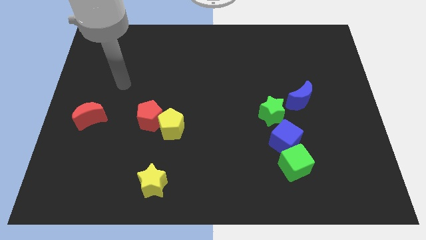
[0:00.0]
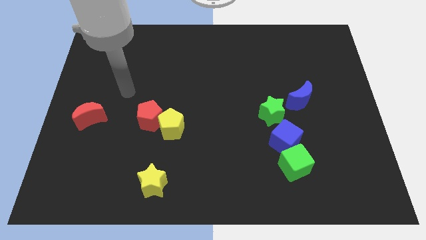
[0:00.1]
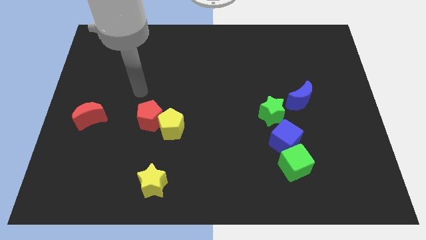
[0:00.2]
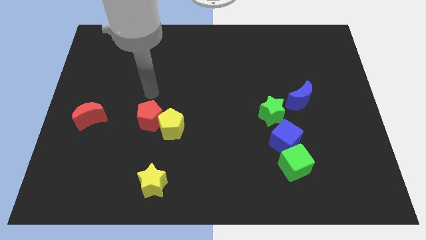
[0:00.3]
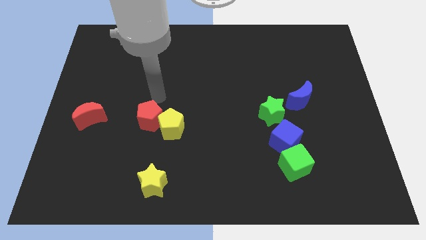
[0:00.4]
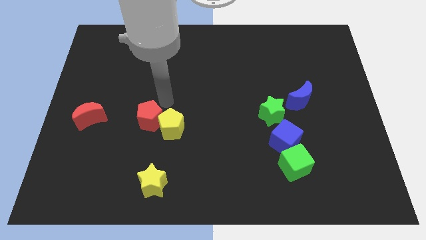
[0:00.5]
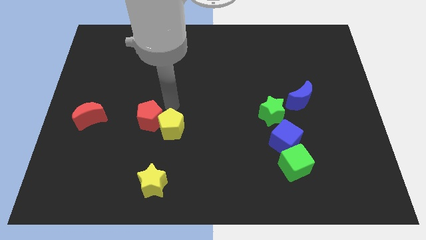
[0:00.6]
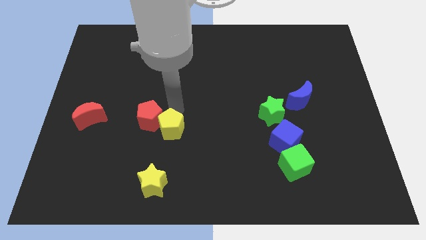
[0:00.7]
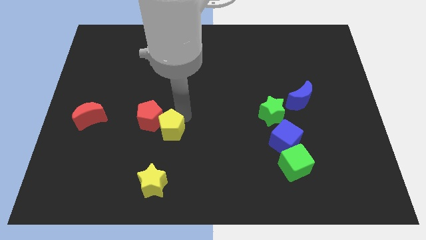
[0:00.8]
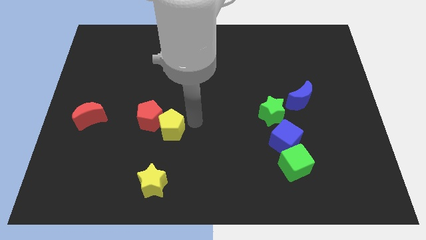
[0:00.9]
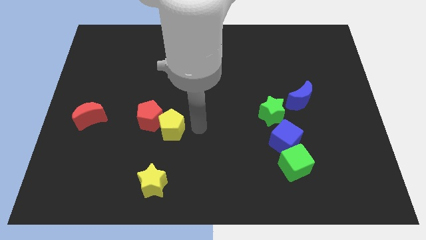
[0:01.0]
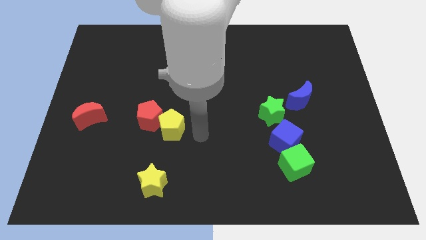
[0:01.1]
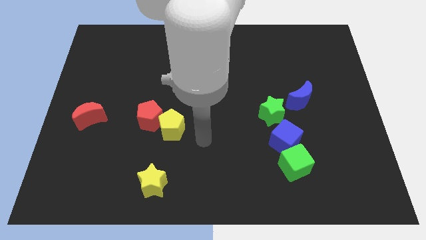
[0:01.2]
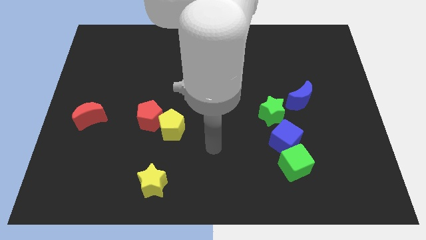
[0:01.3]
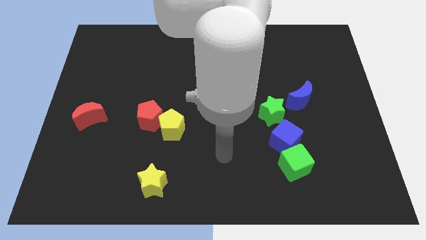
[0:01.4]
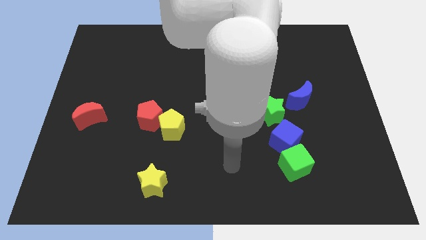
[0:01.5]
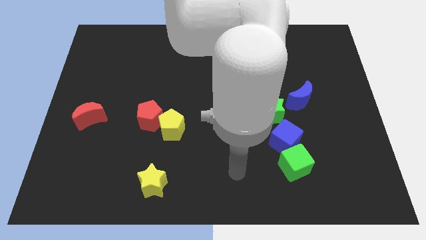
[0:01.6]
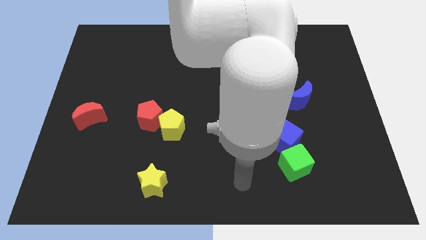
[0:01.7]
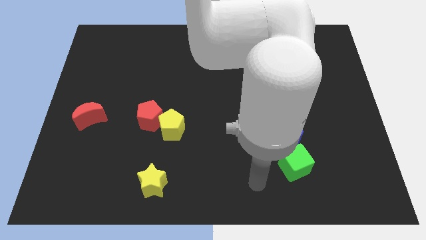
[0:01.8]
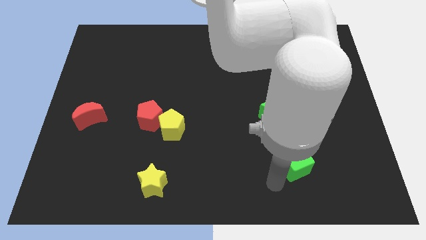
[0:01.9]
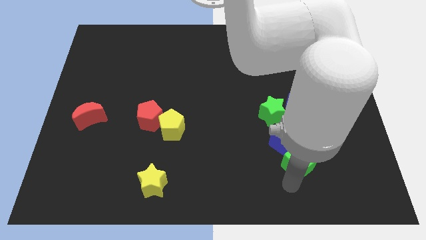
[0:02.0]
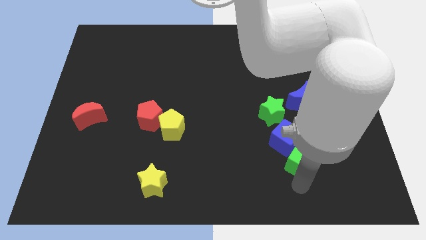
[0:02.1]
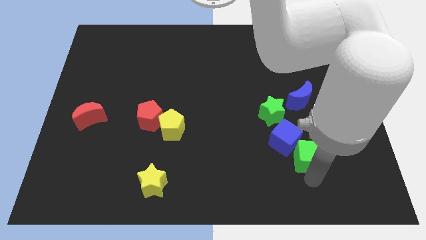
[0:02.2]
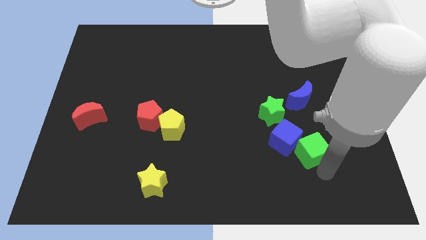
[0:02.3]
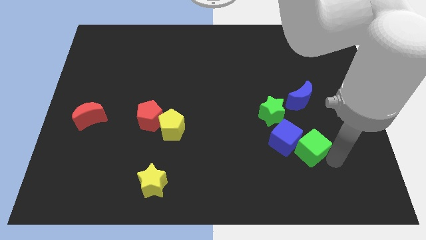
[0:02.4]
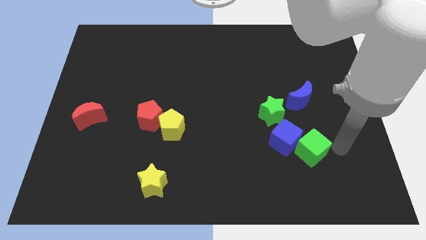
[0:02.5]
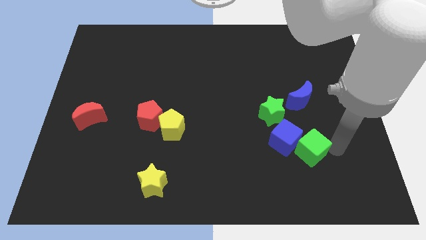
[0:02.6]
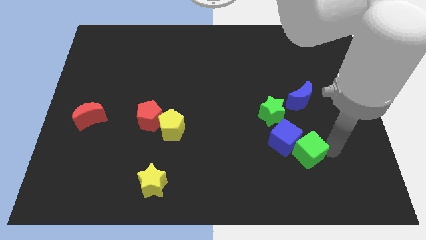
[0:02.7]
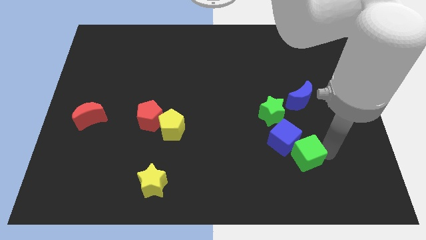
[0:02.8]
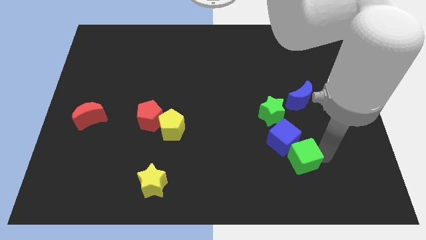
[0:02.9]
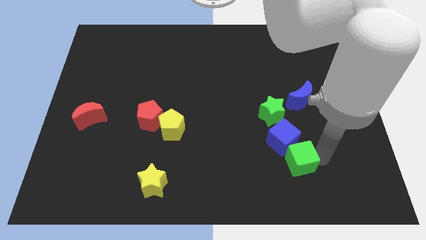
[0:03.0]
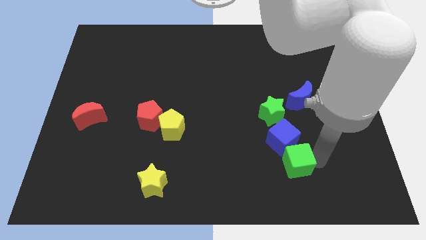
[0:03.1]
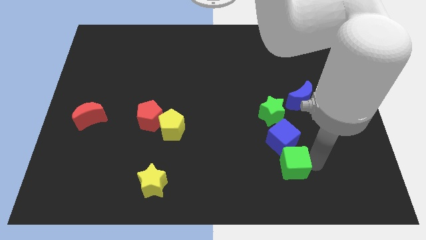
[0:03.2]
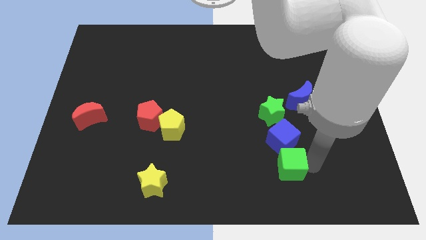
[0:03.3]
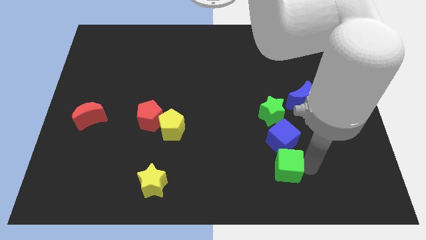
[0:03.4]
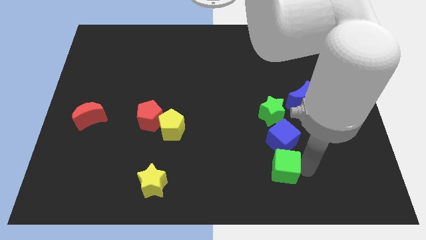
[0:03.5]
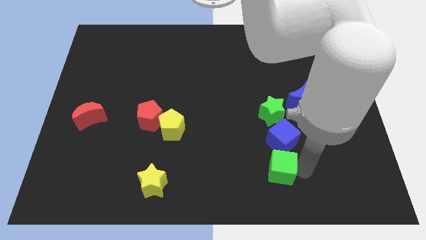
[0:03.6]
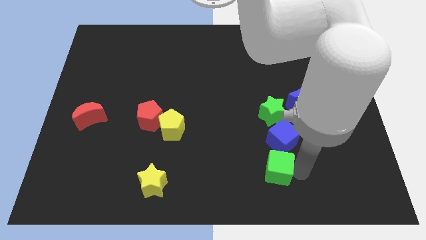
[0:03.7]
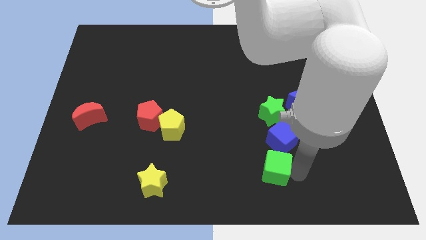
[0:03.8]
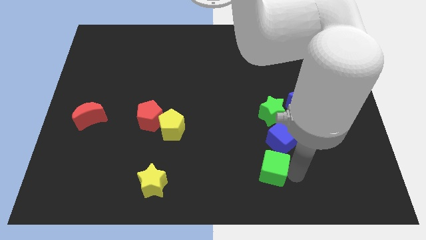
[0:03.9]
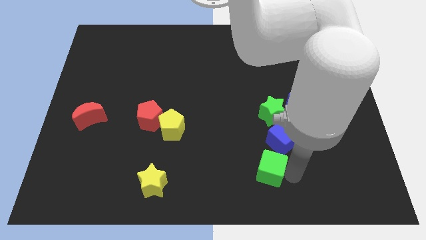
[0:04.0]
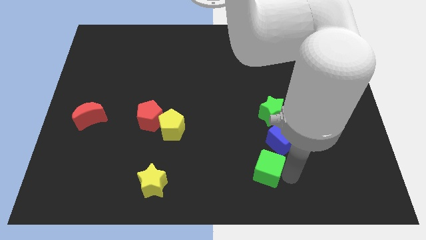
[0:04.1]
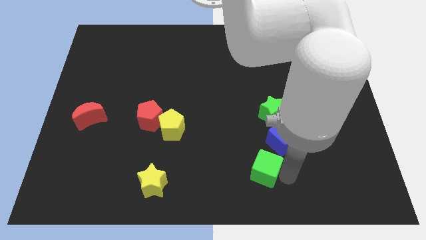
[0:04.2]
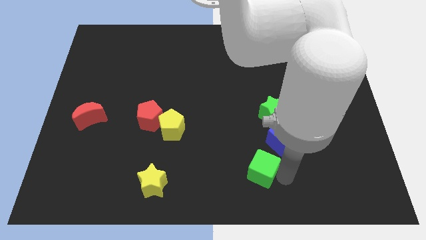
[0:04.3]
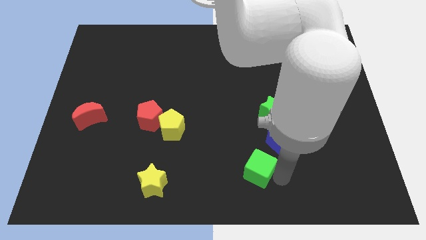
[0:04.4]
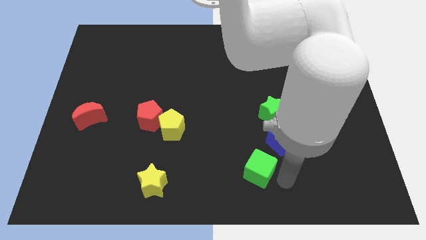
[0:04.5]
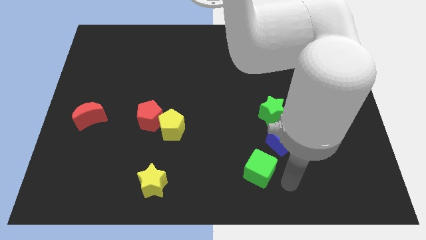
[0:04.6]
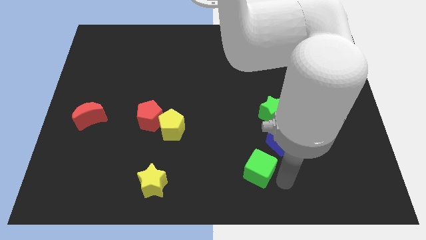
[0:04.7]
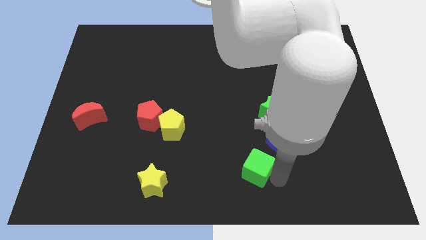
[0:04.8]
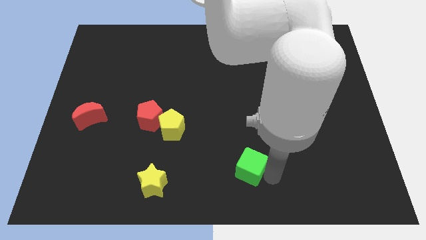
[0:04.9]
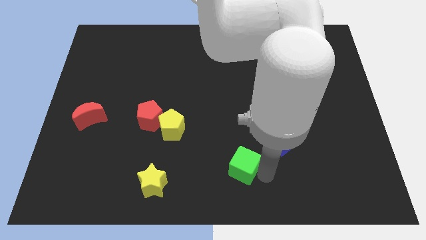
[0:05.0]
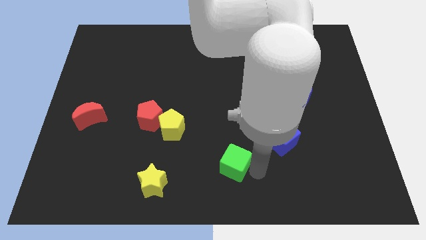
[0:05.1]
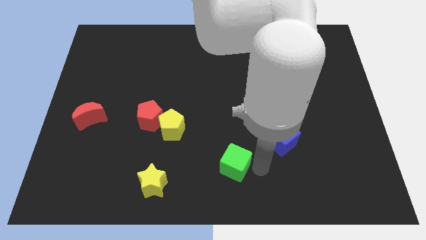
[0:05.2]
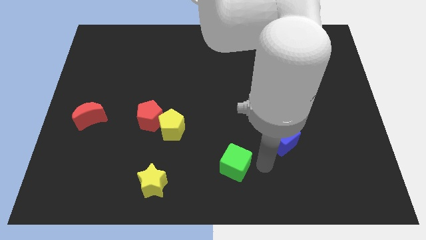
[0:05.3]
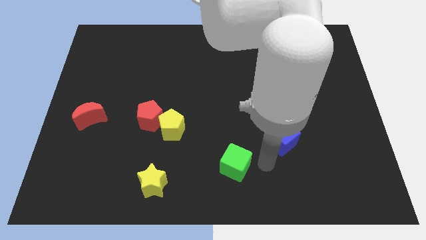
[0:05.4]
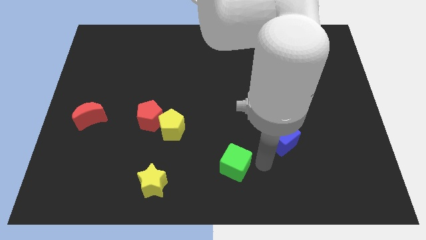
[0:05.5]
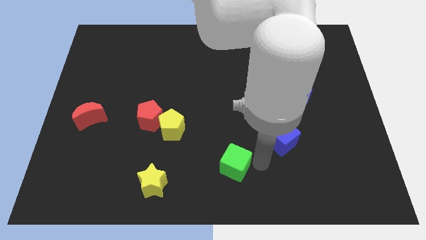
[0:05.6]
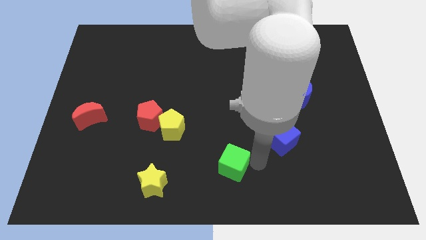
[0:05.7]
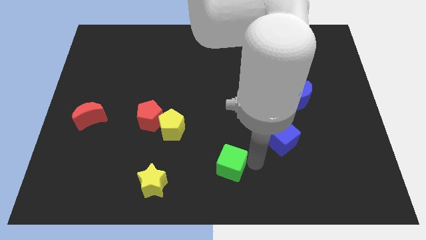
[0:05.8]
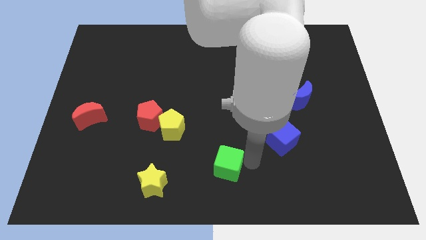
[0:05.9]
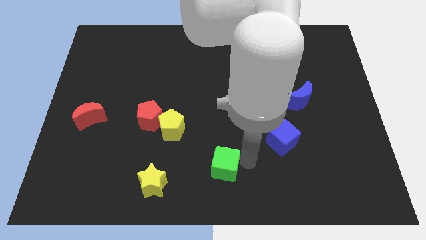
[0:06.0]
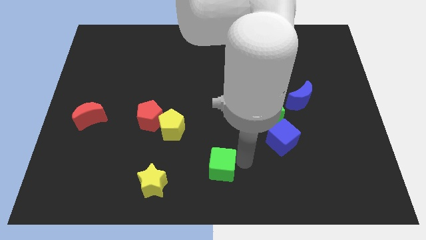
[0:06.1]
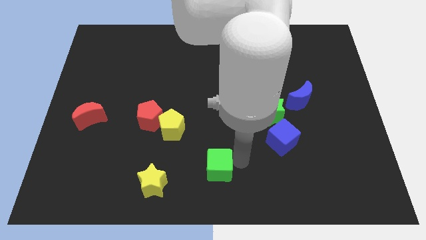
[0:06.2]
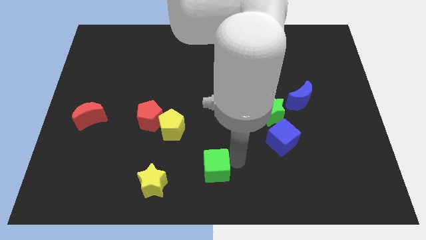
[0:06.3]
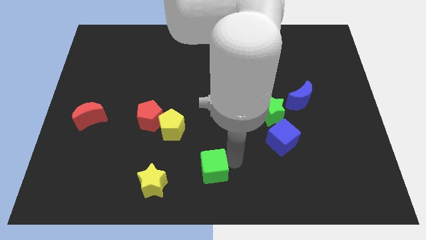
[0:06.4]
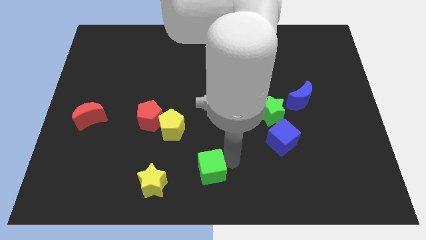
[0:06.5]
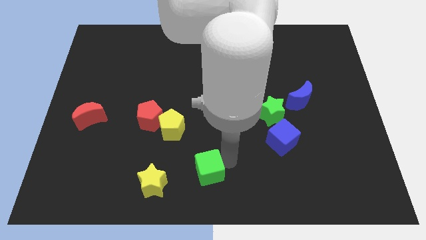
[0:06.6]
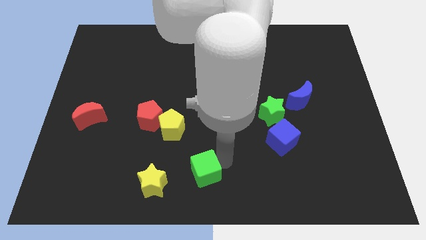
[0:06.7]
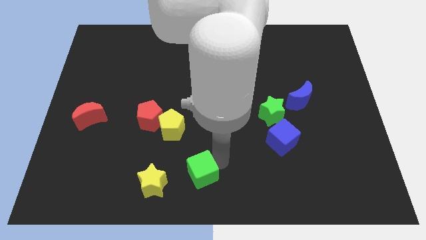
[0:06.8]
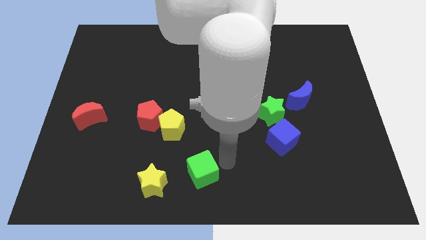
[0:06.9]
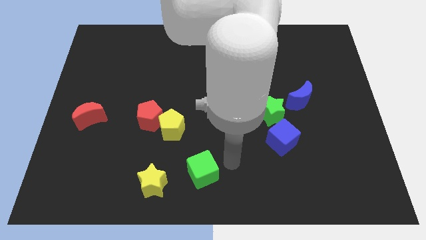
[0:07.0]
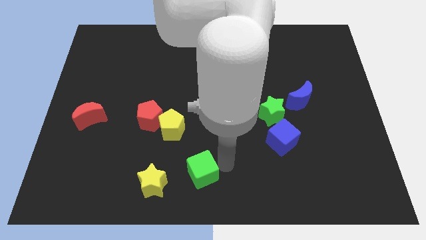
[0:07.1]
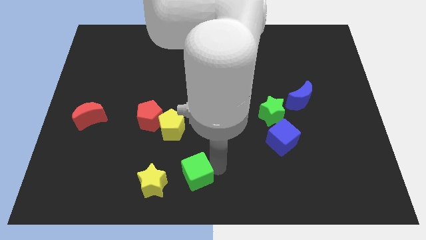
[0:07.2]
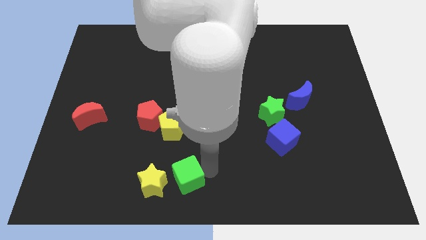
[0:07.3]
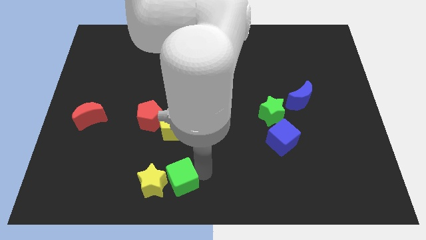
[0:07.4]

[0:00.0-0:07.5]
move the green cube next to the yellow star
